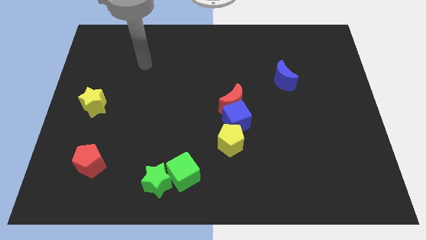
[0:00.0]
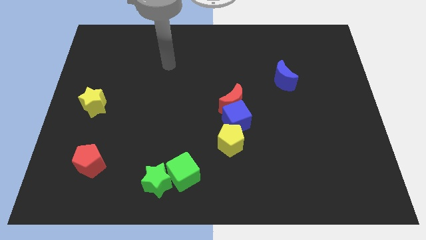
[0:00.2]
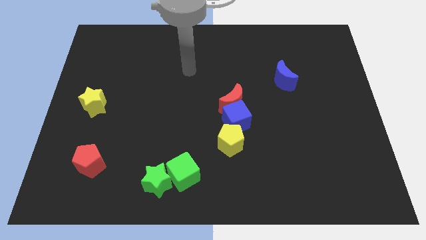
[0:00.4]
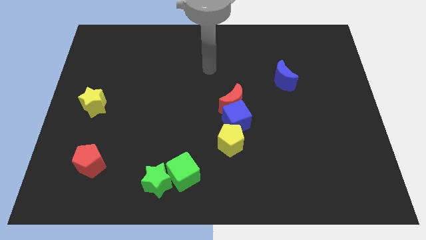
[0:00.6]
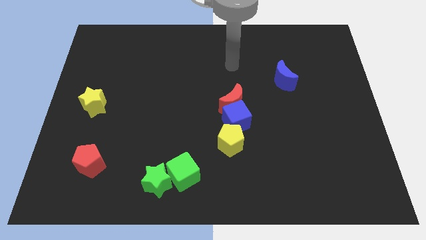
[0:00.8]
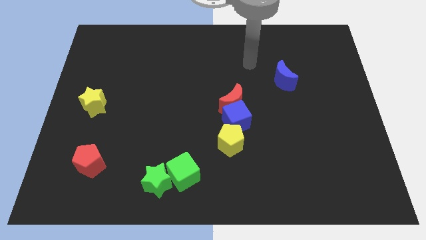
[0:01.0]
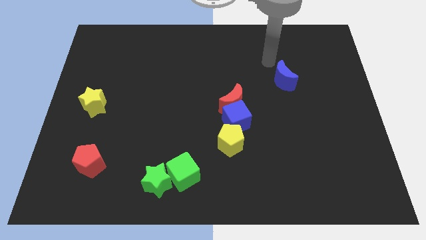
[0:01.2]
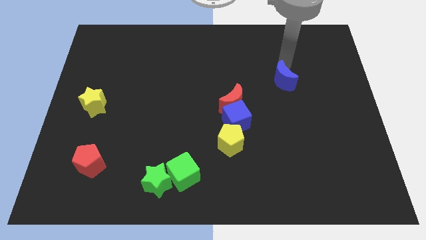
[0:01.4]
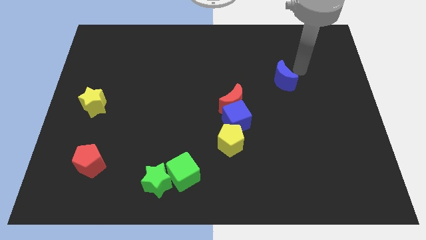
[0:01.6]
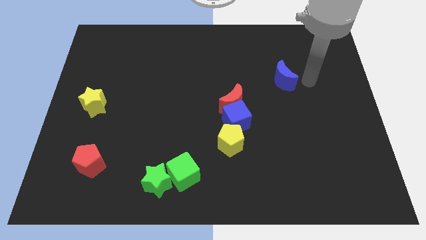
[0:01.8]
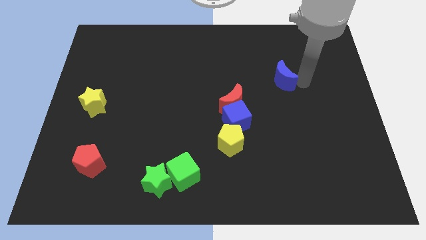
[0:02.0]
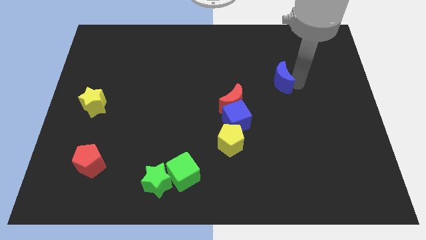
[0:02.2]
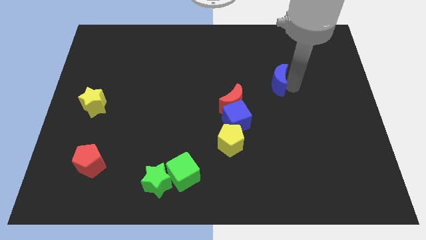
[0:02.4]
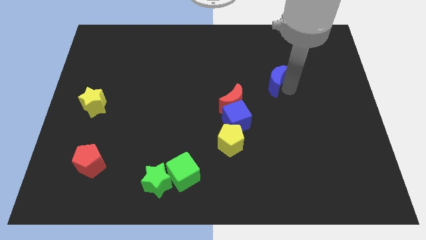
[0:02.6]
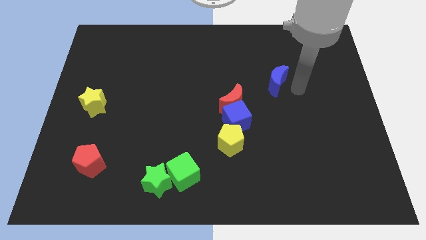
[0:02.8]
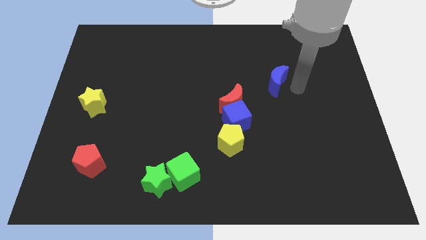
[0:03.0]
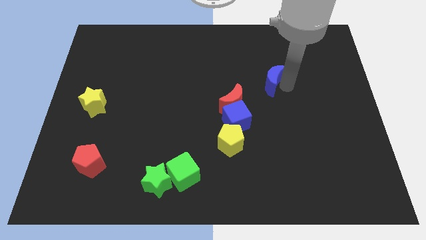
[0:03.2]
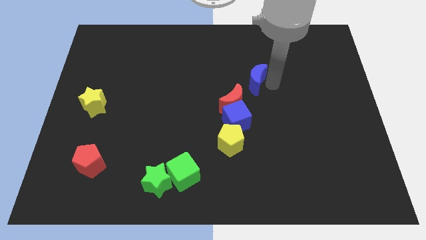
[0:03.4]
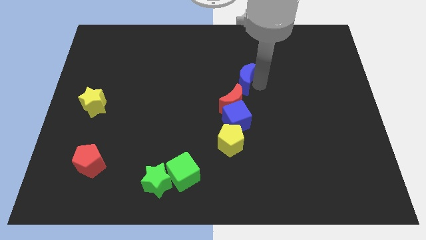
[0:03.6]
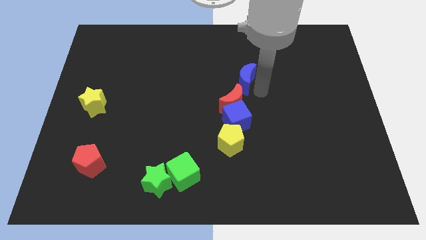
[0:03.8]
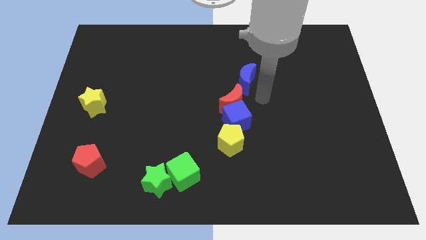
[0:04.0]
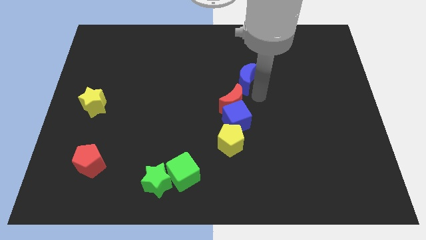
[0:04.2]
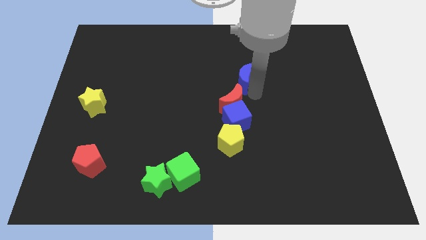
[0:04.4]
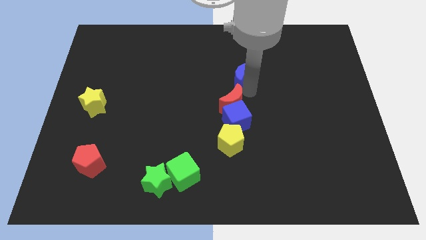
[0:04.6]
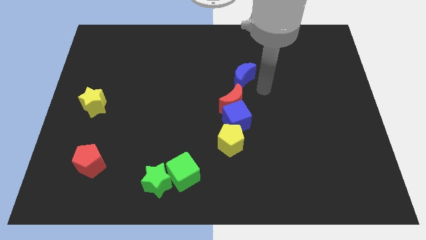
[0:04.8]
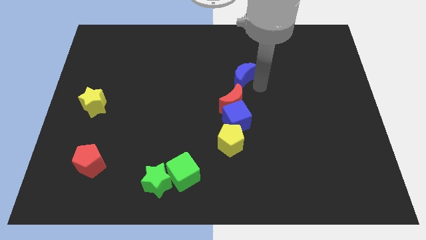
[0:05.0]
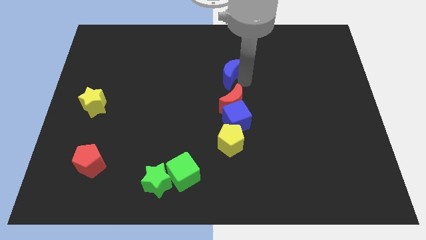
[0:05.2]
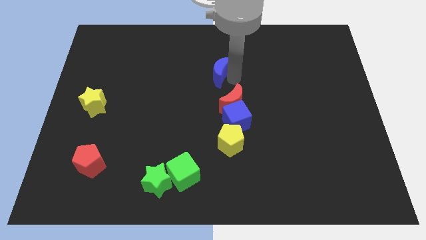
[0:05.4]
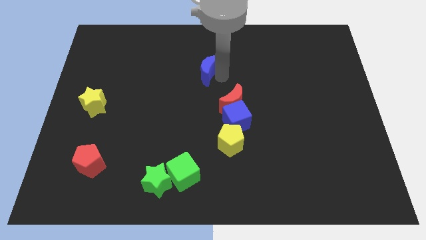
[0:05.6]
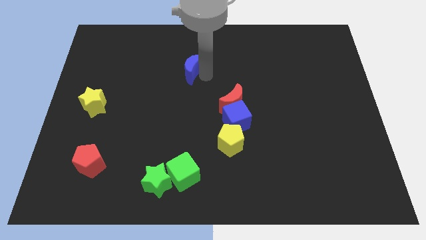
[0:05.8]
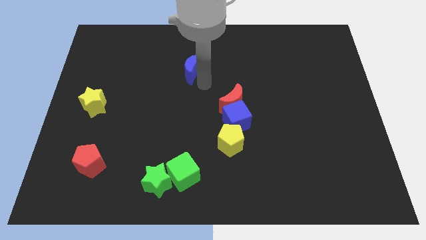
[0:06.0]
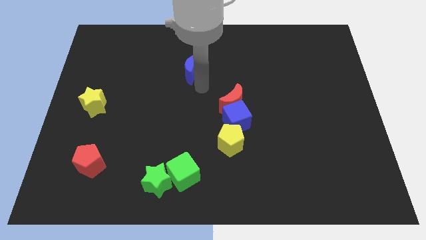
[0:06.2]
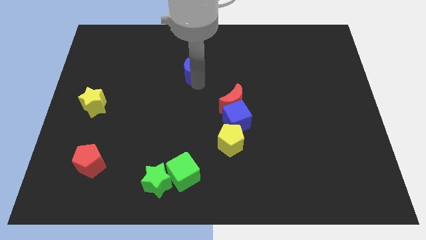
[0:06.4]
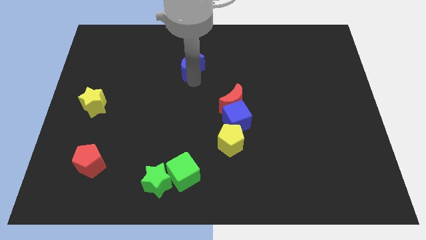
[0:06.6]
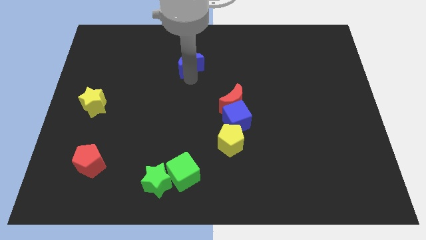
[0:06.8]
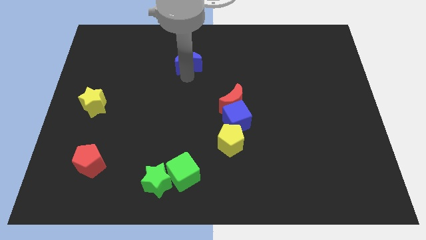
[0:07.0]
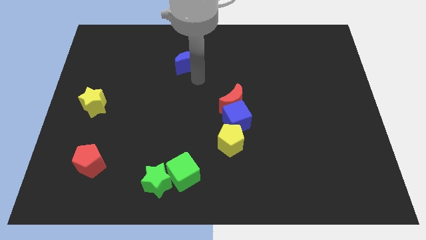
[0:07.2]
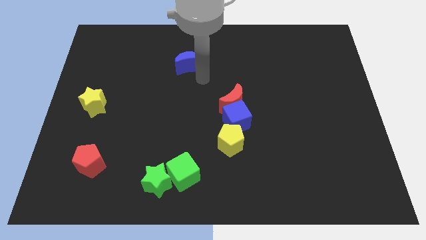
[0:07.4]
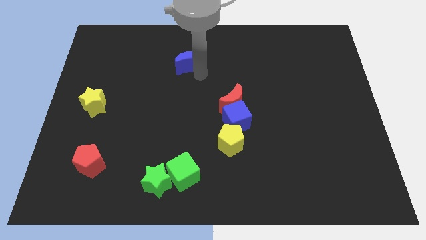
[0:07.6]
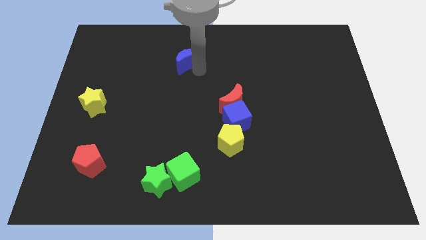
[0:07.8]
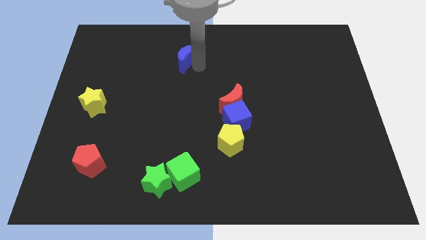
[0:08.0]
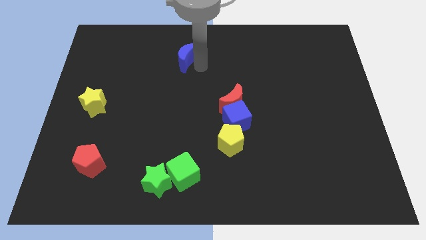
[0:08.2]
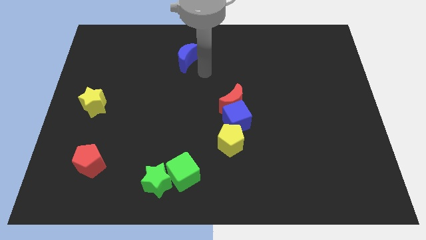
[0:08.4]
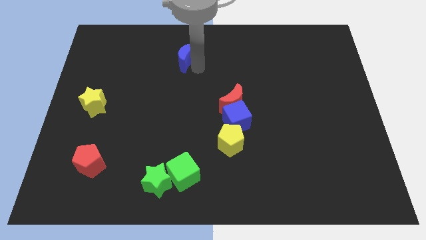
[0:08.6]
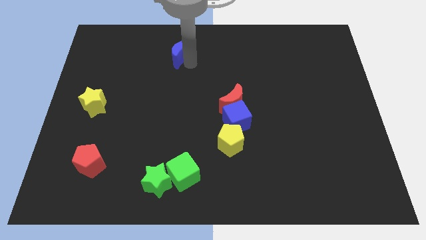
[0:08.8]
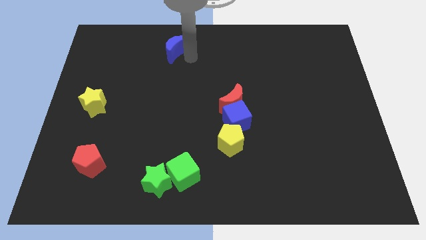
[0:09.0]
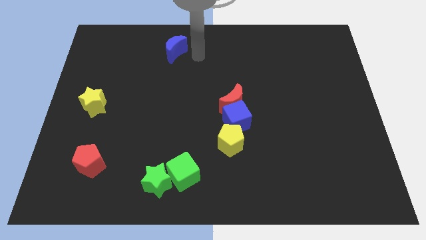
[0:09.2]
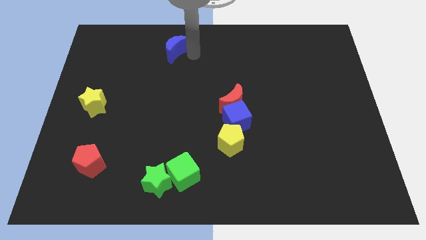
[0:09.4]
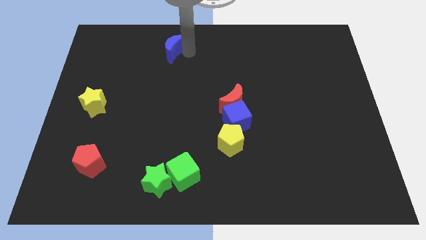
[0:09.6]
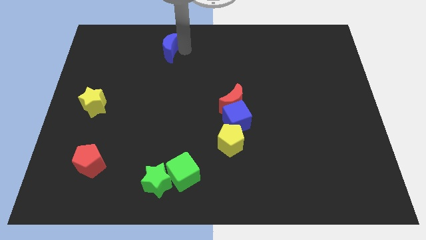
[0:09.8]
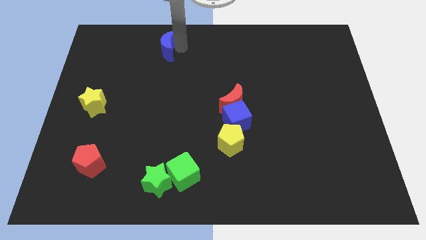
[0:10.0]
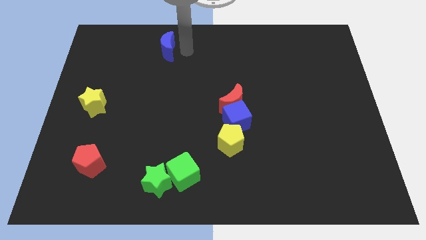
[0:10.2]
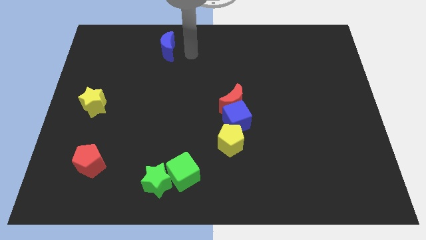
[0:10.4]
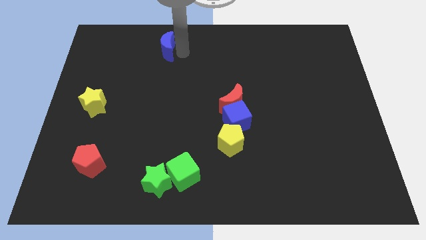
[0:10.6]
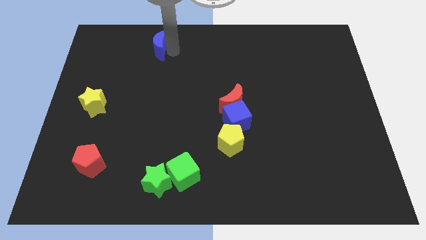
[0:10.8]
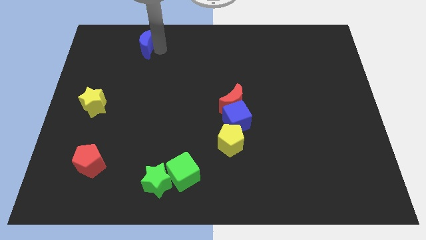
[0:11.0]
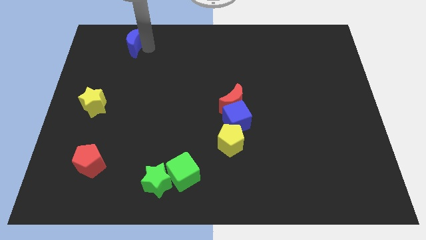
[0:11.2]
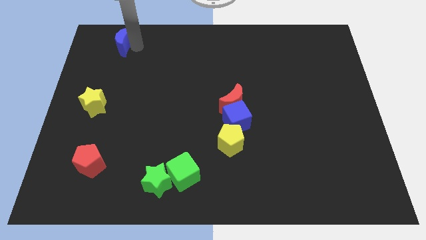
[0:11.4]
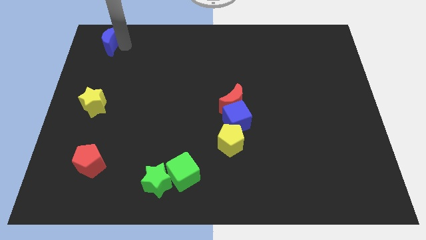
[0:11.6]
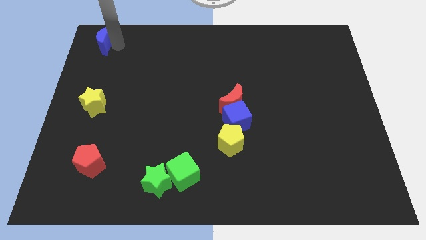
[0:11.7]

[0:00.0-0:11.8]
slide the blue moon to the top left of the board

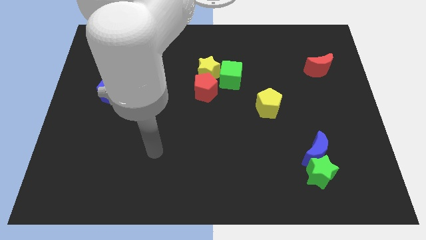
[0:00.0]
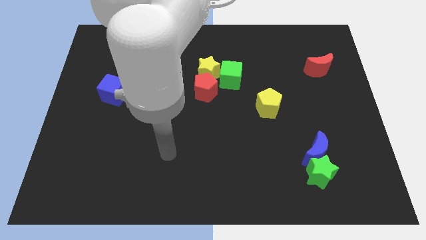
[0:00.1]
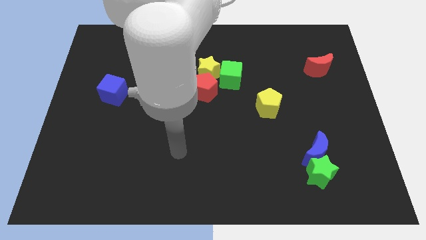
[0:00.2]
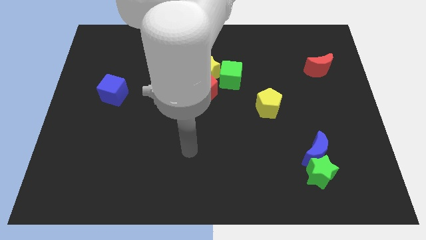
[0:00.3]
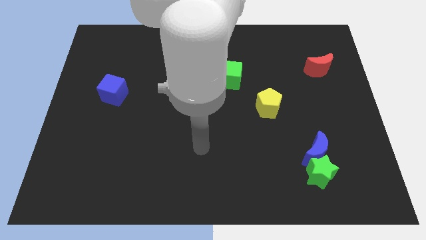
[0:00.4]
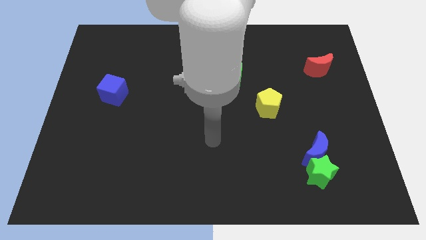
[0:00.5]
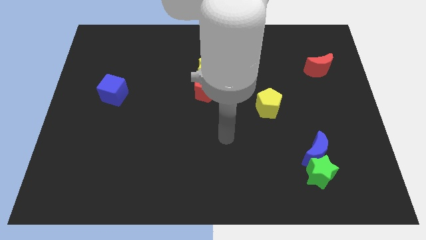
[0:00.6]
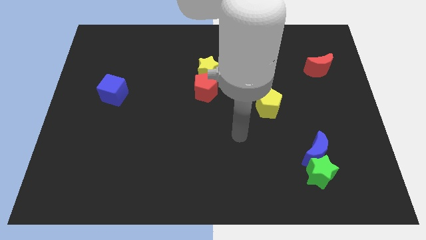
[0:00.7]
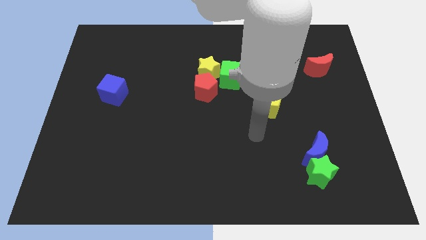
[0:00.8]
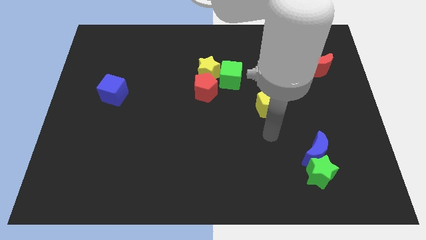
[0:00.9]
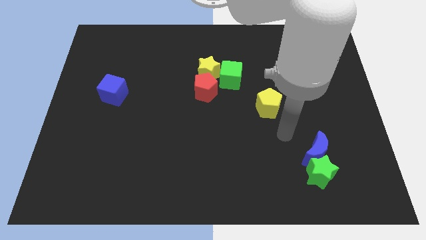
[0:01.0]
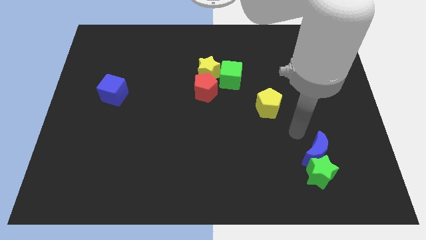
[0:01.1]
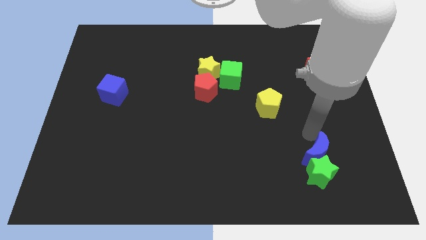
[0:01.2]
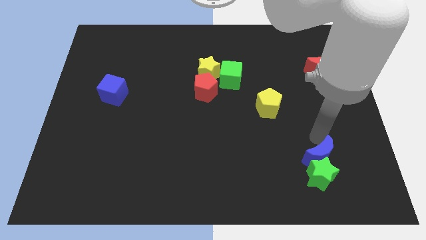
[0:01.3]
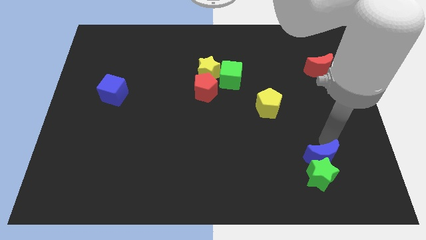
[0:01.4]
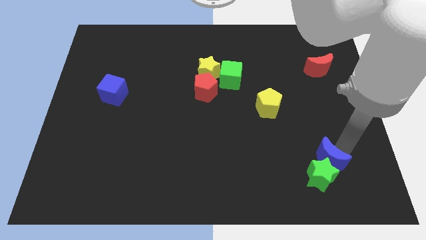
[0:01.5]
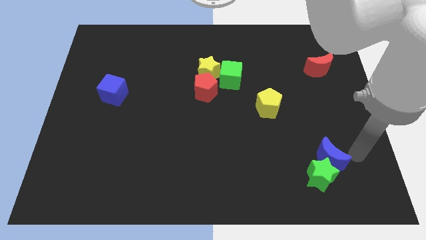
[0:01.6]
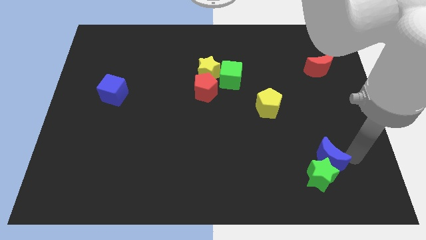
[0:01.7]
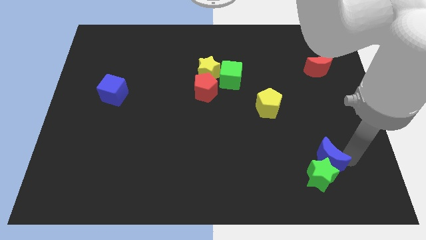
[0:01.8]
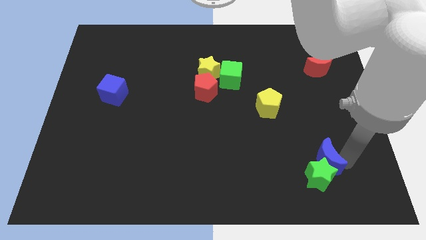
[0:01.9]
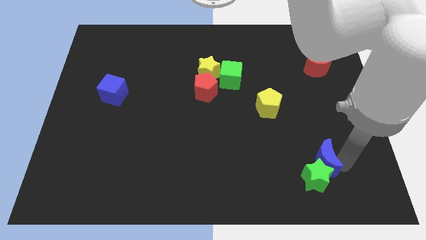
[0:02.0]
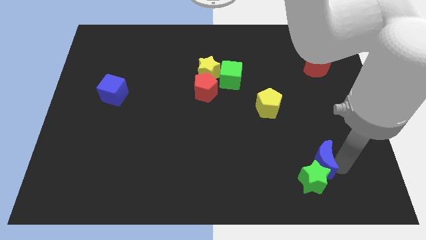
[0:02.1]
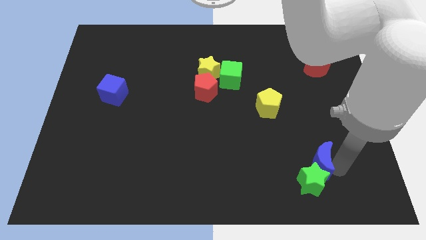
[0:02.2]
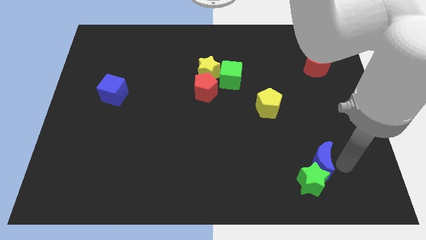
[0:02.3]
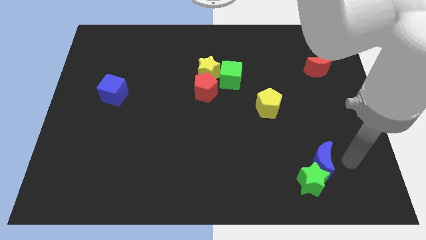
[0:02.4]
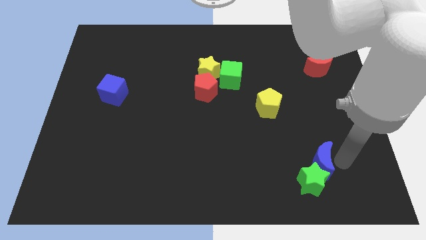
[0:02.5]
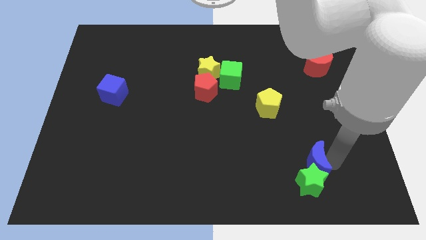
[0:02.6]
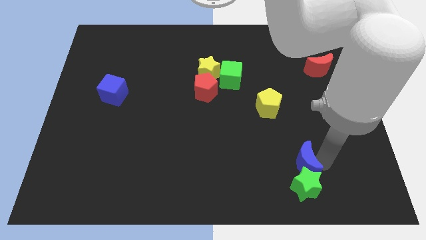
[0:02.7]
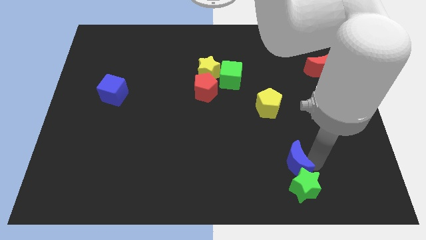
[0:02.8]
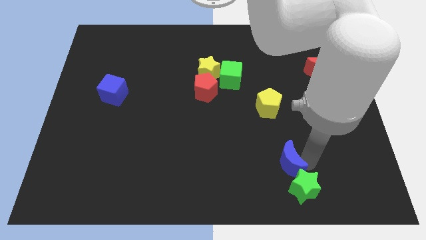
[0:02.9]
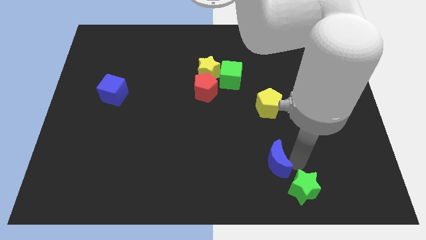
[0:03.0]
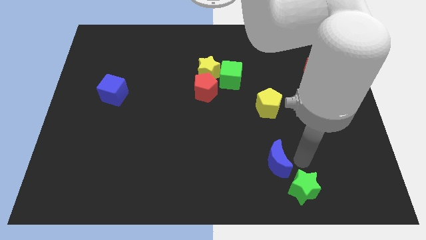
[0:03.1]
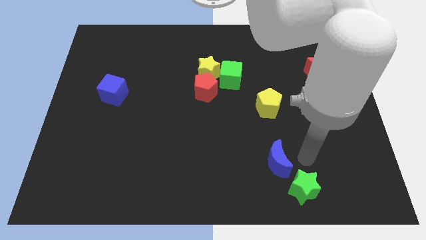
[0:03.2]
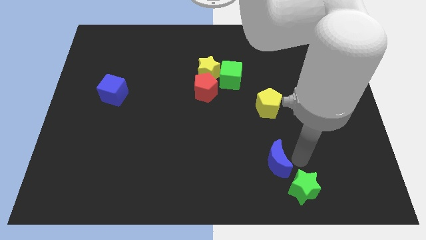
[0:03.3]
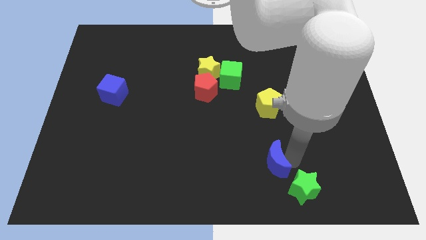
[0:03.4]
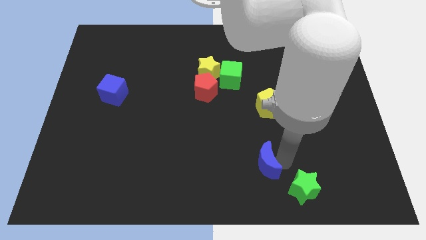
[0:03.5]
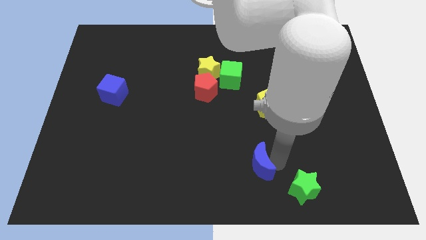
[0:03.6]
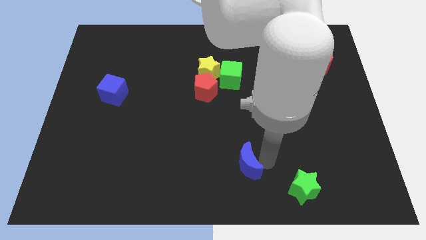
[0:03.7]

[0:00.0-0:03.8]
push the blue moon to the bottom side
